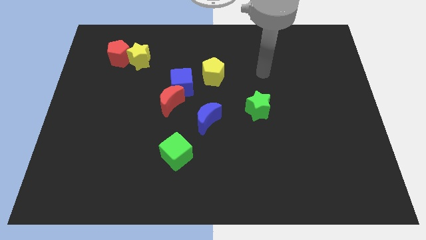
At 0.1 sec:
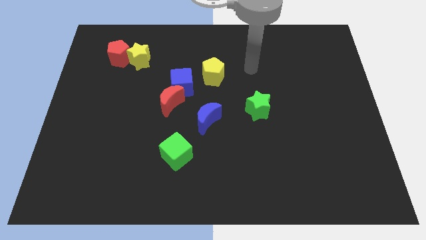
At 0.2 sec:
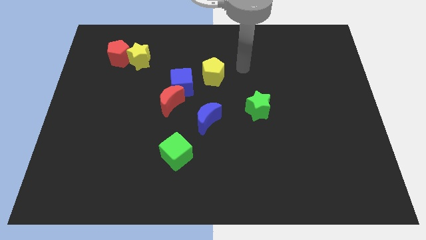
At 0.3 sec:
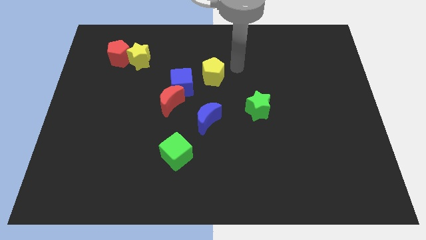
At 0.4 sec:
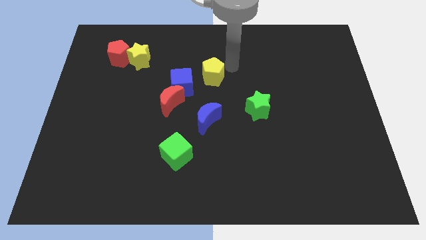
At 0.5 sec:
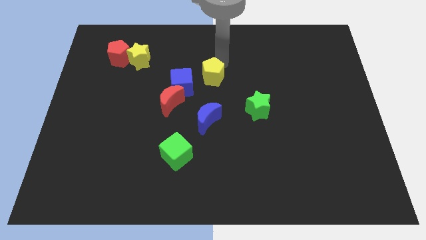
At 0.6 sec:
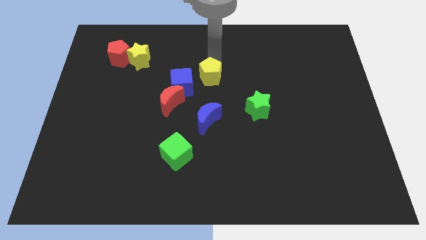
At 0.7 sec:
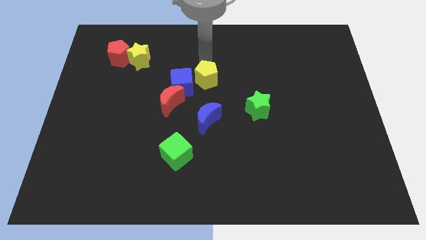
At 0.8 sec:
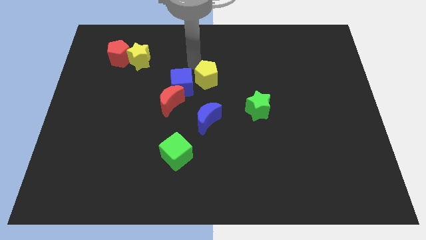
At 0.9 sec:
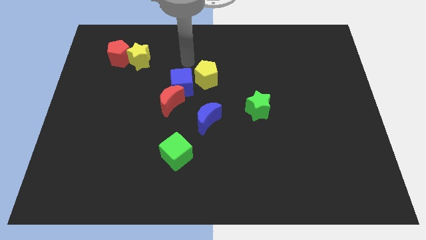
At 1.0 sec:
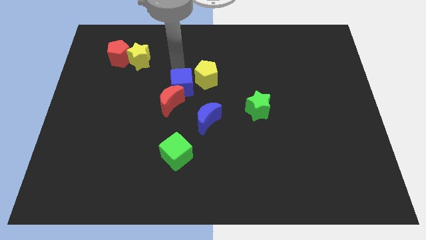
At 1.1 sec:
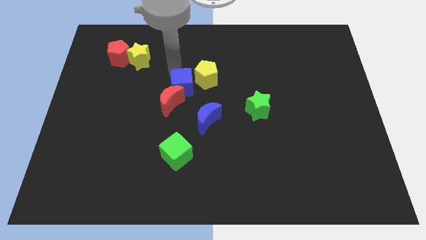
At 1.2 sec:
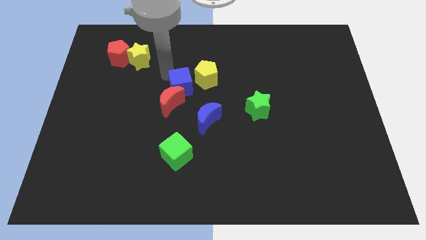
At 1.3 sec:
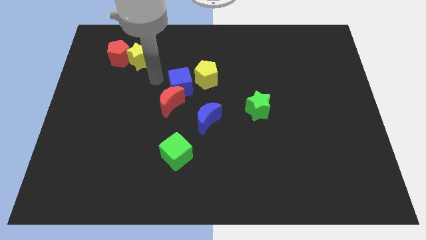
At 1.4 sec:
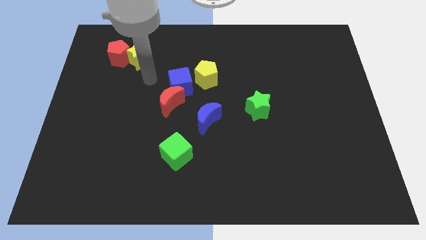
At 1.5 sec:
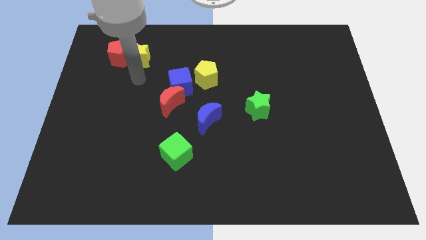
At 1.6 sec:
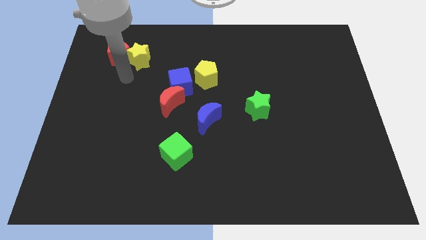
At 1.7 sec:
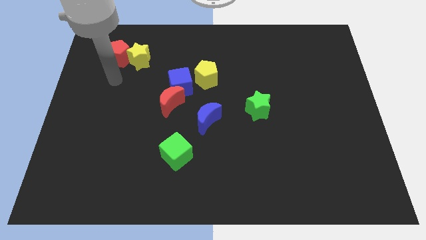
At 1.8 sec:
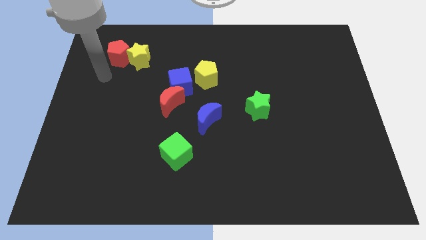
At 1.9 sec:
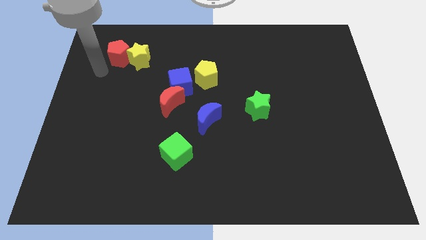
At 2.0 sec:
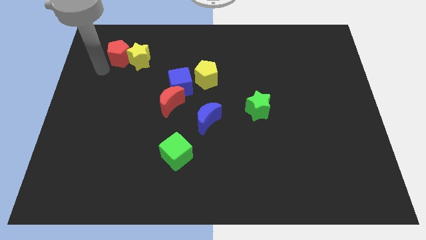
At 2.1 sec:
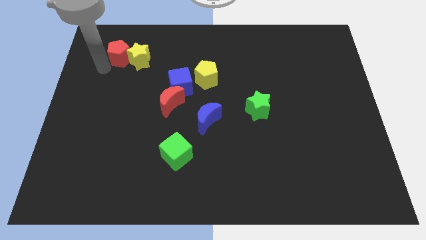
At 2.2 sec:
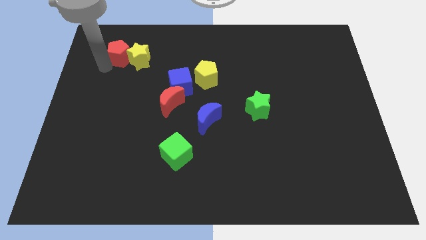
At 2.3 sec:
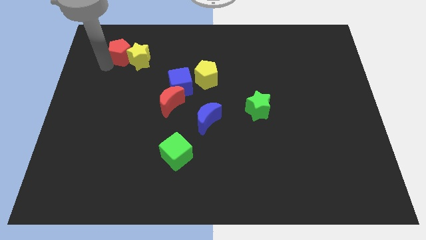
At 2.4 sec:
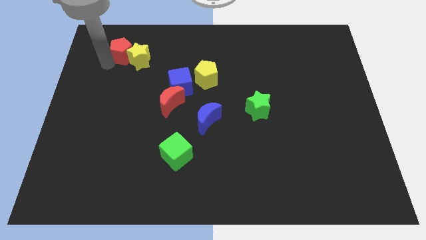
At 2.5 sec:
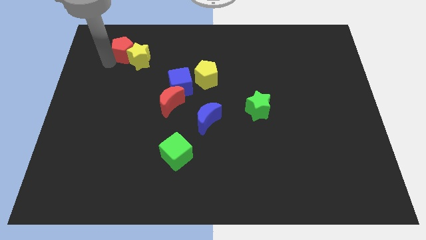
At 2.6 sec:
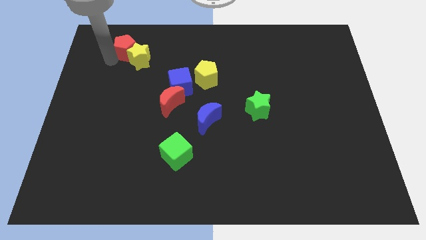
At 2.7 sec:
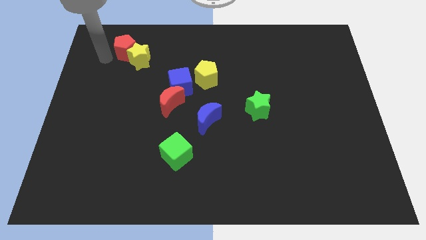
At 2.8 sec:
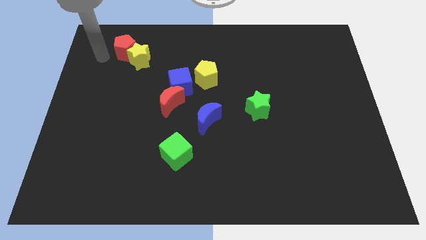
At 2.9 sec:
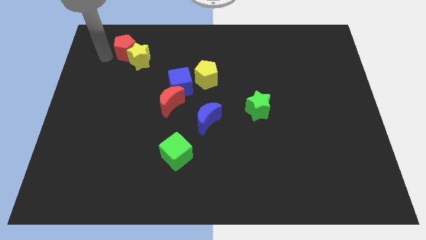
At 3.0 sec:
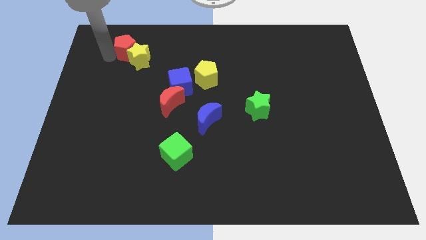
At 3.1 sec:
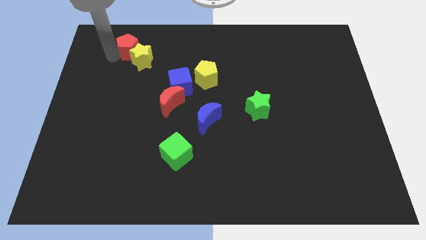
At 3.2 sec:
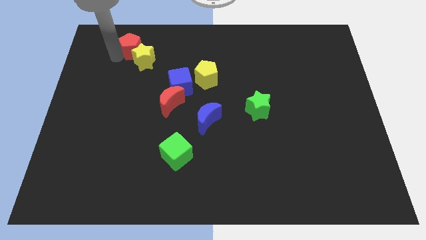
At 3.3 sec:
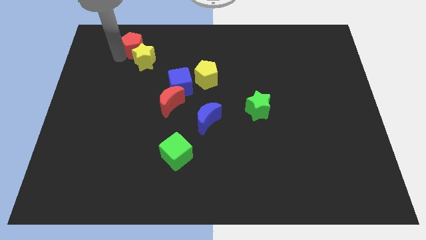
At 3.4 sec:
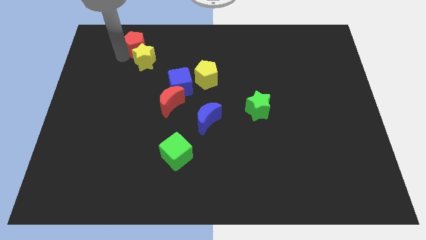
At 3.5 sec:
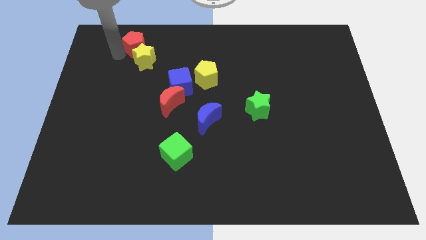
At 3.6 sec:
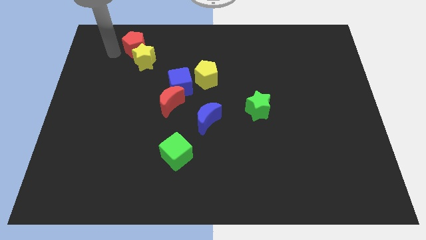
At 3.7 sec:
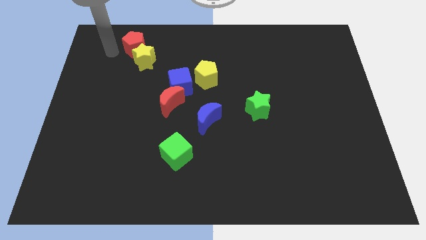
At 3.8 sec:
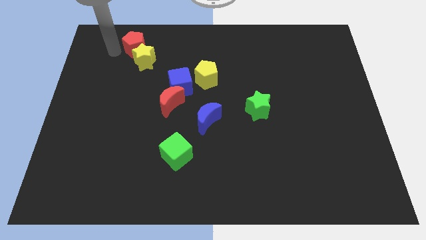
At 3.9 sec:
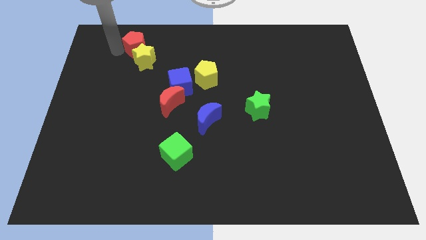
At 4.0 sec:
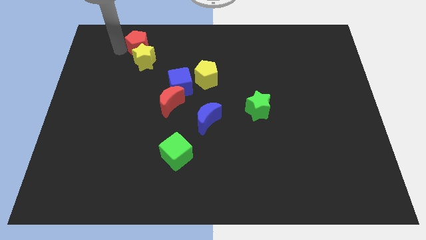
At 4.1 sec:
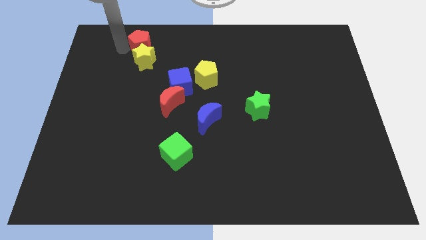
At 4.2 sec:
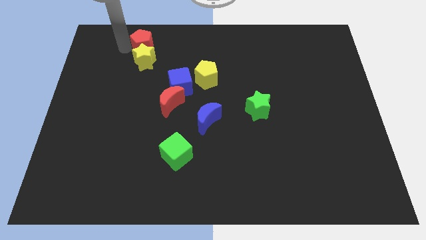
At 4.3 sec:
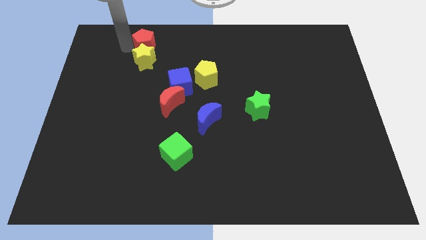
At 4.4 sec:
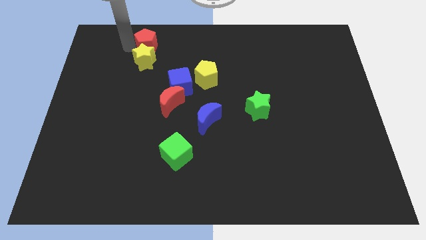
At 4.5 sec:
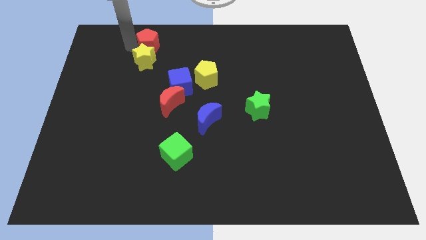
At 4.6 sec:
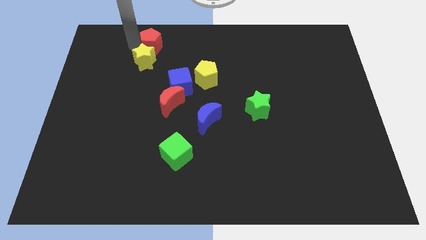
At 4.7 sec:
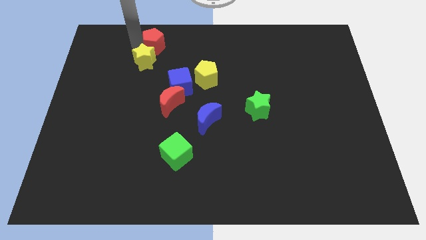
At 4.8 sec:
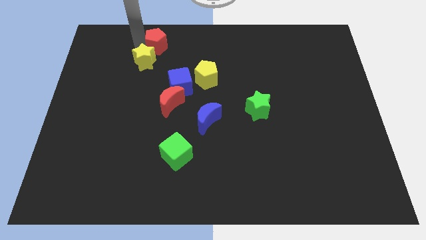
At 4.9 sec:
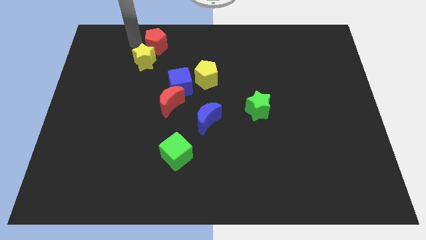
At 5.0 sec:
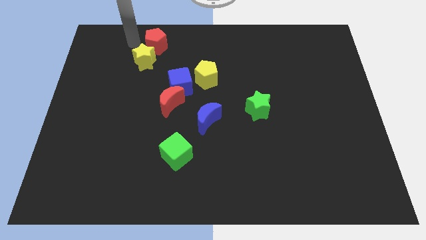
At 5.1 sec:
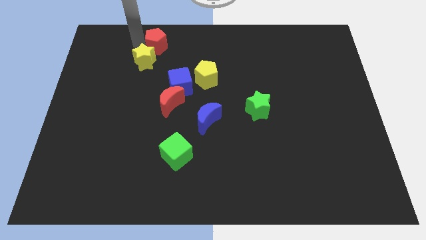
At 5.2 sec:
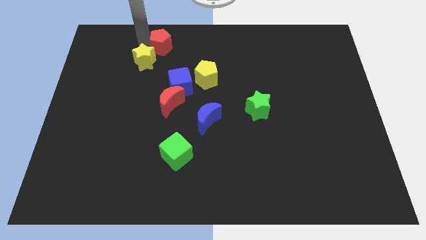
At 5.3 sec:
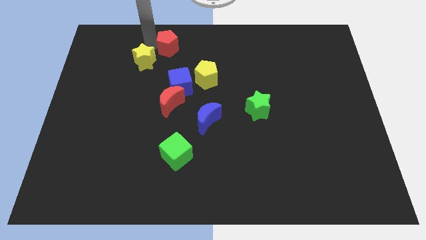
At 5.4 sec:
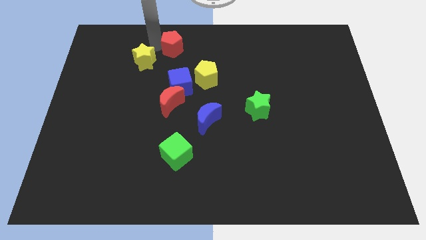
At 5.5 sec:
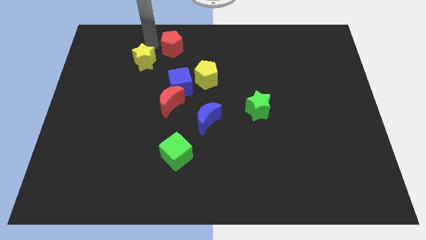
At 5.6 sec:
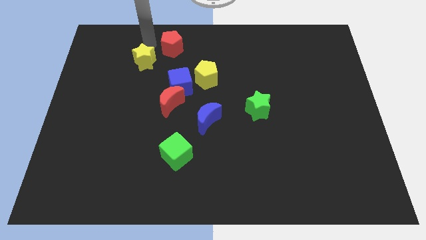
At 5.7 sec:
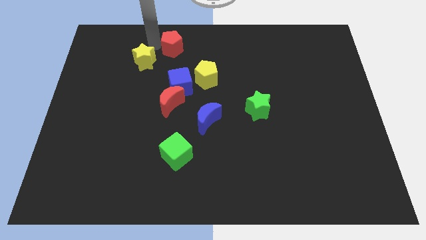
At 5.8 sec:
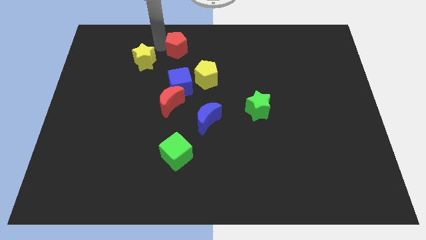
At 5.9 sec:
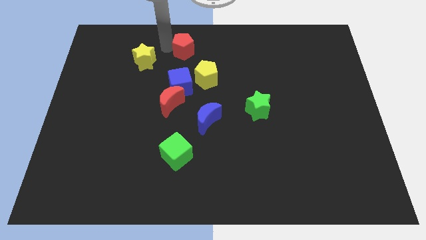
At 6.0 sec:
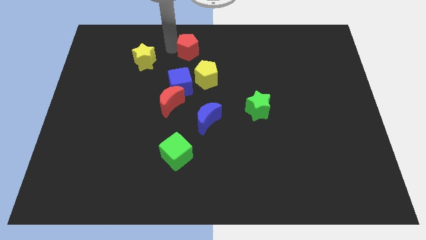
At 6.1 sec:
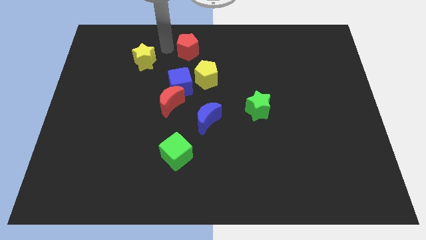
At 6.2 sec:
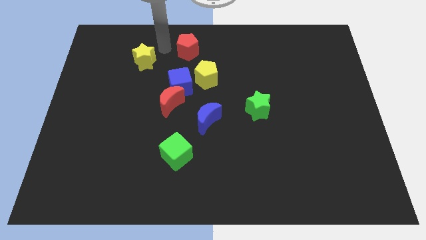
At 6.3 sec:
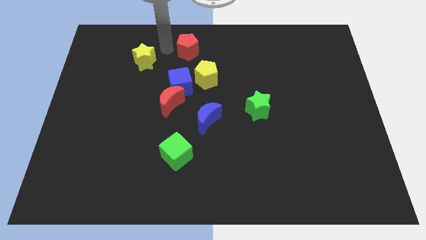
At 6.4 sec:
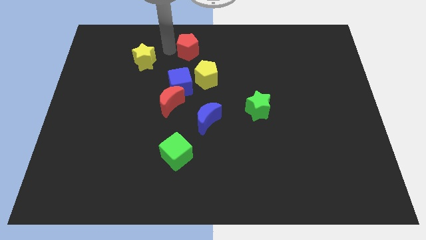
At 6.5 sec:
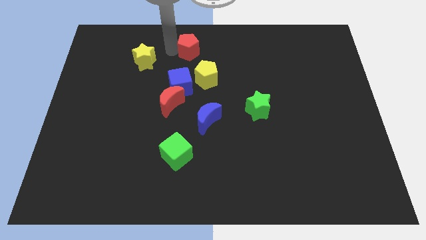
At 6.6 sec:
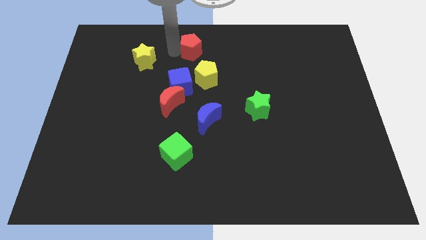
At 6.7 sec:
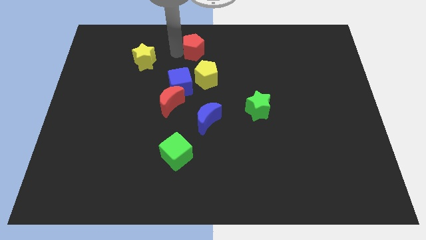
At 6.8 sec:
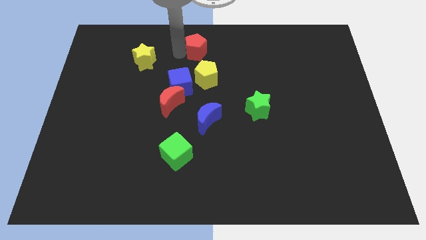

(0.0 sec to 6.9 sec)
move the red pentagon right

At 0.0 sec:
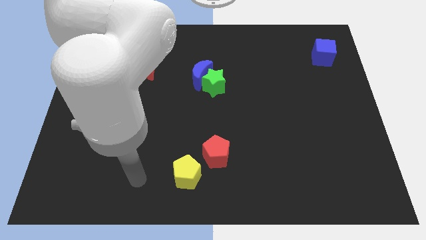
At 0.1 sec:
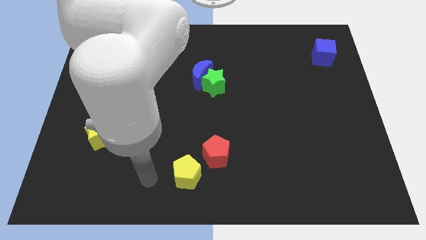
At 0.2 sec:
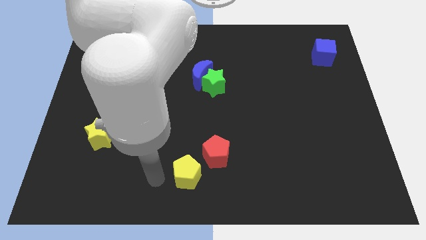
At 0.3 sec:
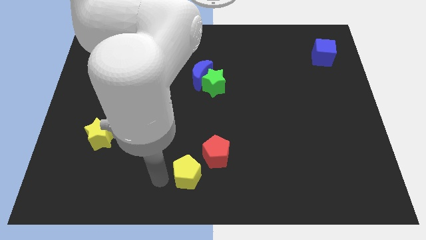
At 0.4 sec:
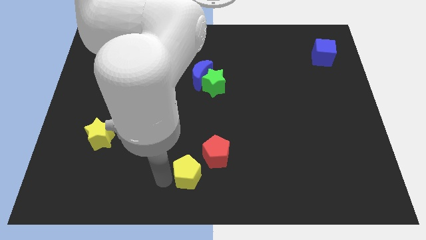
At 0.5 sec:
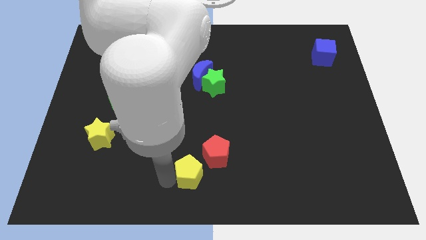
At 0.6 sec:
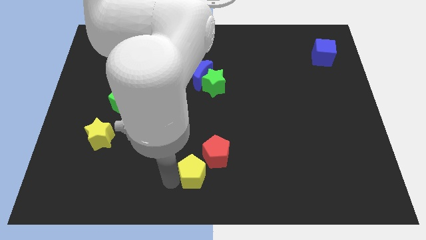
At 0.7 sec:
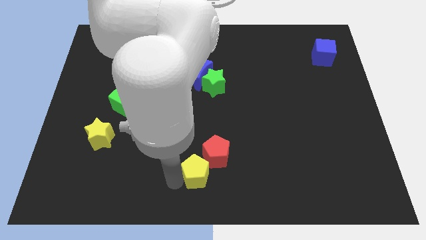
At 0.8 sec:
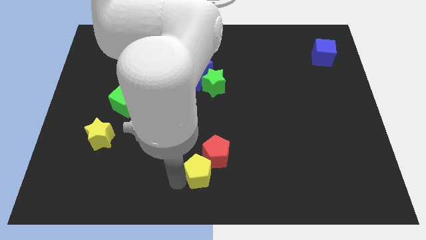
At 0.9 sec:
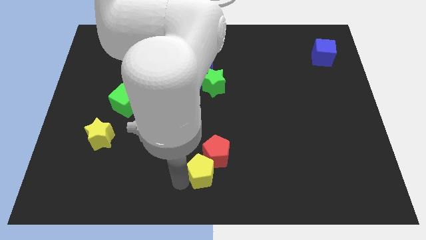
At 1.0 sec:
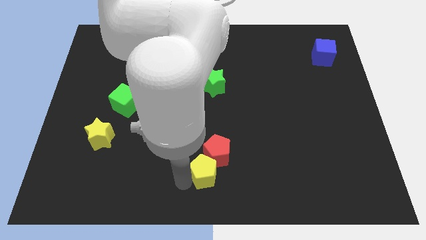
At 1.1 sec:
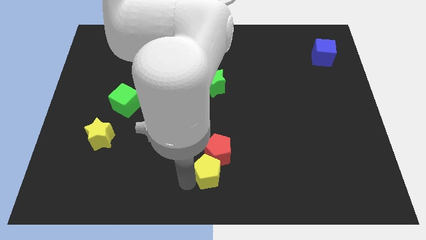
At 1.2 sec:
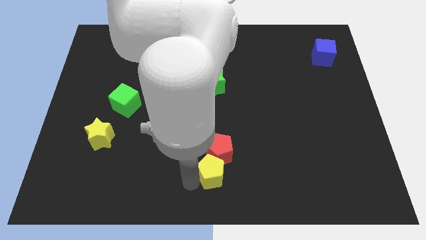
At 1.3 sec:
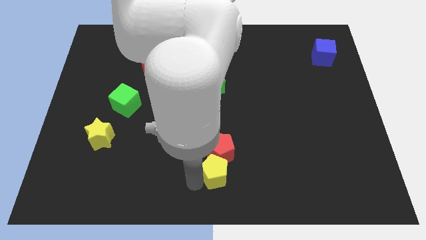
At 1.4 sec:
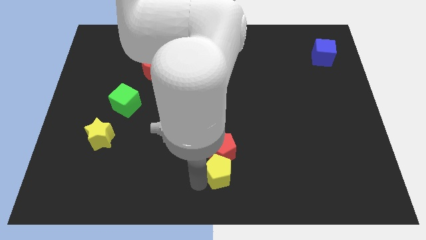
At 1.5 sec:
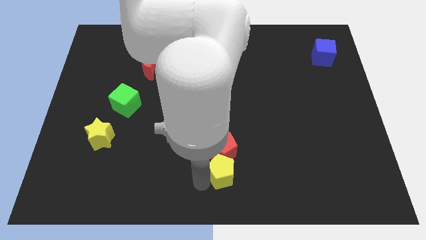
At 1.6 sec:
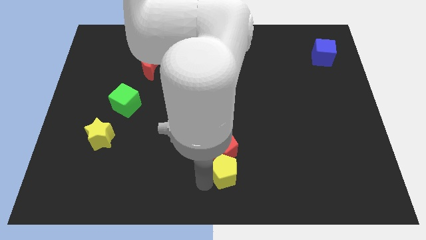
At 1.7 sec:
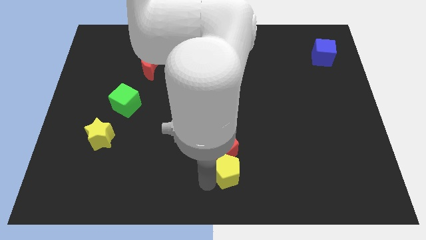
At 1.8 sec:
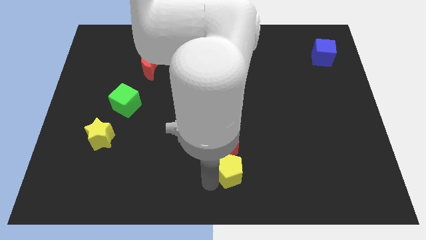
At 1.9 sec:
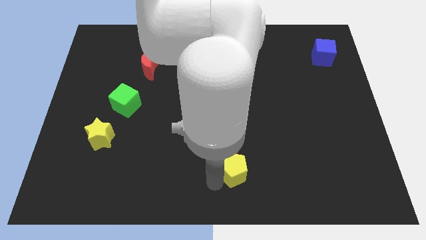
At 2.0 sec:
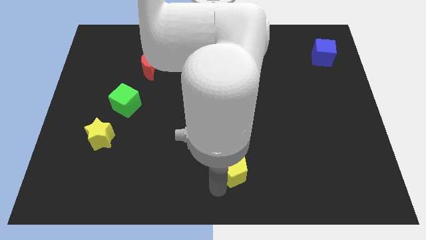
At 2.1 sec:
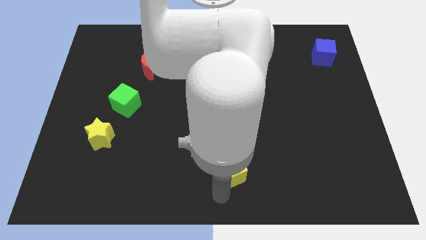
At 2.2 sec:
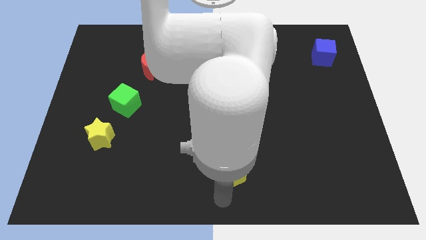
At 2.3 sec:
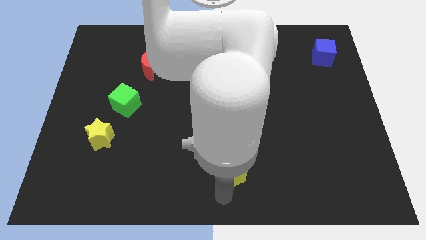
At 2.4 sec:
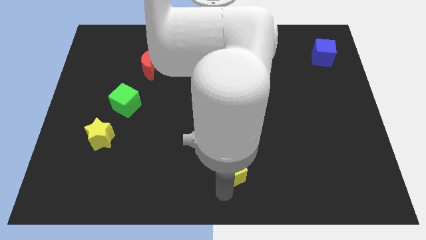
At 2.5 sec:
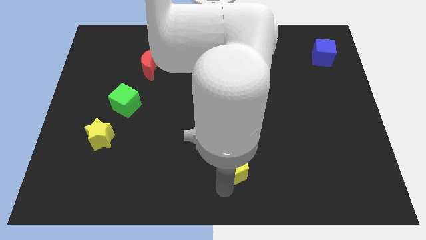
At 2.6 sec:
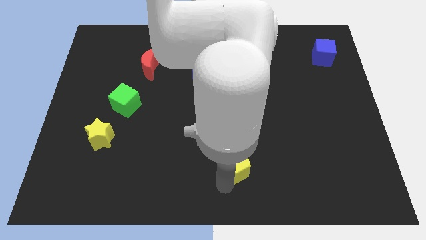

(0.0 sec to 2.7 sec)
move the yellow pentagon upwards and then right somewhat
